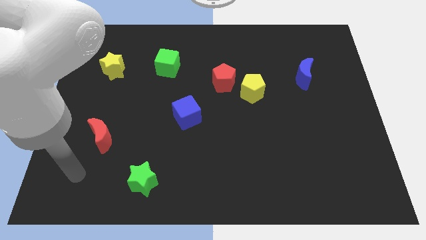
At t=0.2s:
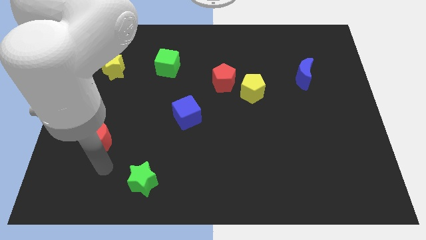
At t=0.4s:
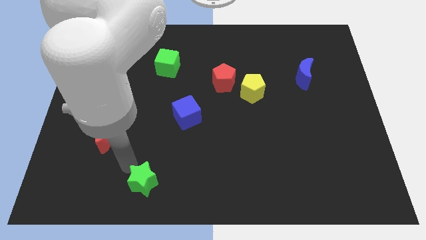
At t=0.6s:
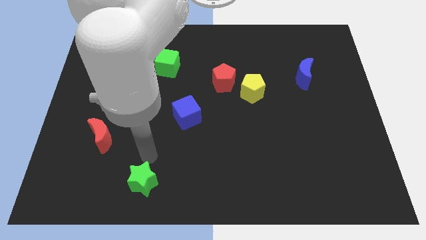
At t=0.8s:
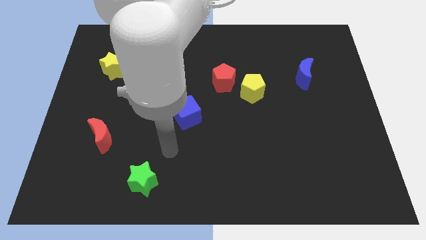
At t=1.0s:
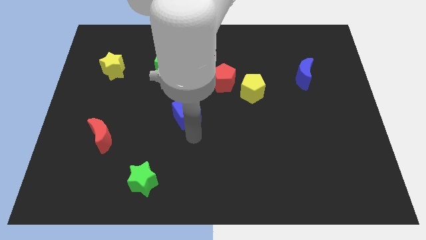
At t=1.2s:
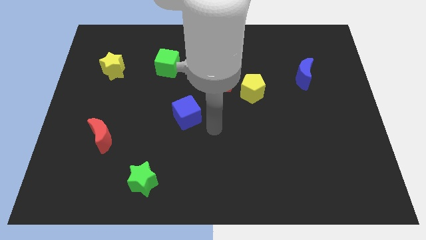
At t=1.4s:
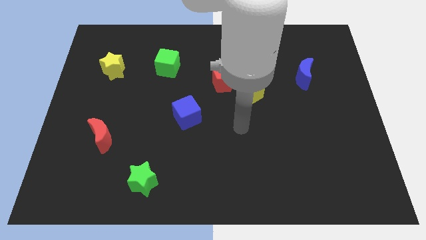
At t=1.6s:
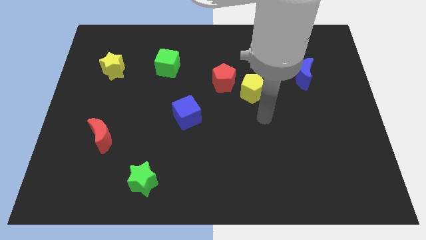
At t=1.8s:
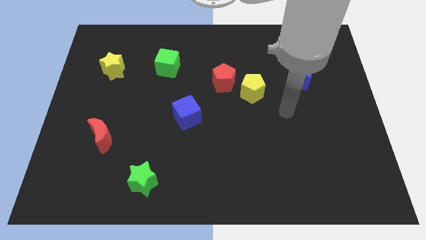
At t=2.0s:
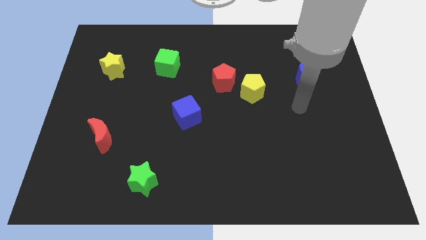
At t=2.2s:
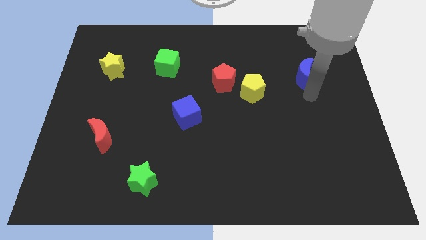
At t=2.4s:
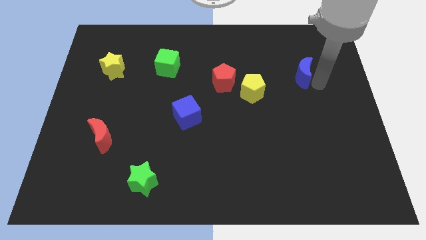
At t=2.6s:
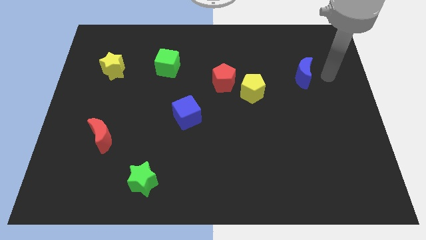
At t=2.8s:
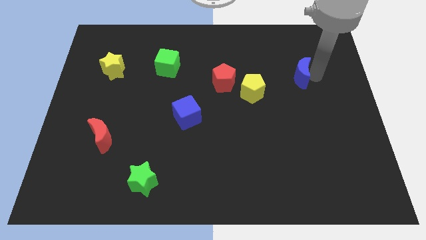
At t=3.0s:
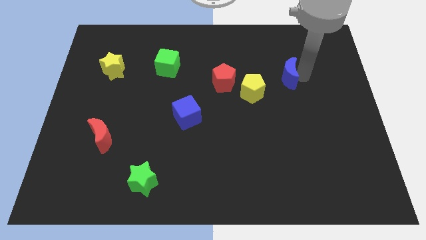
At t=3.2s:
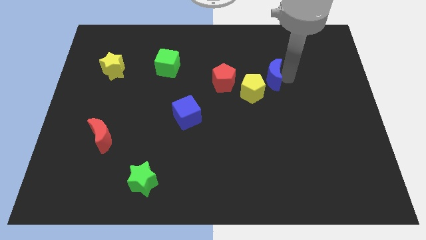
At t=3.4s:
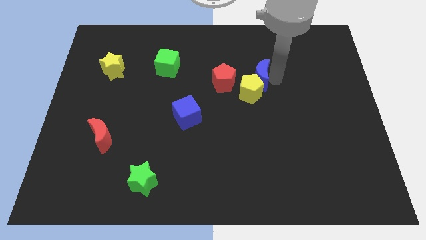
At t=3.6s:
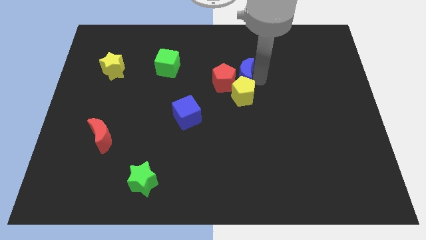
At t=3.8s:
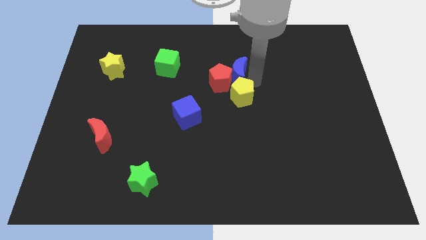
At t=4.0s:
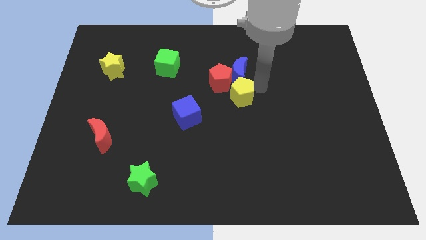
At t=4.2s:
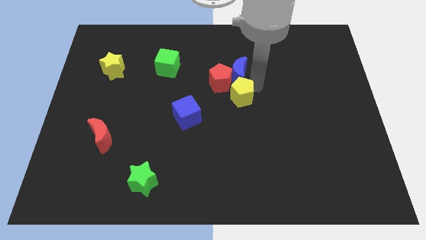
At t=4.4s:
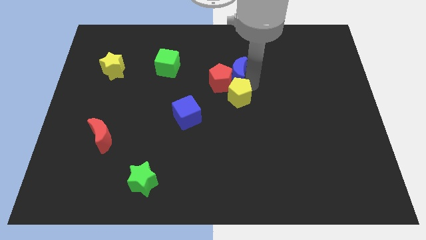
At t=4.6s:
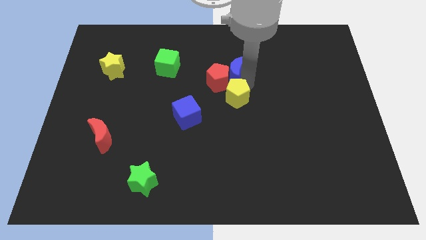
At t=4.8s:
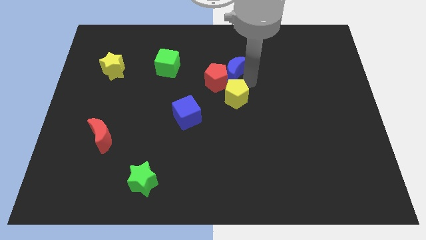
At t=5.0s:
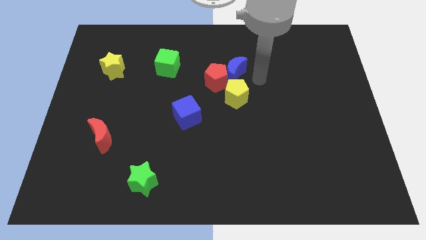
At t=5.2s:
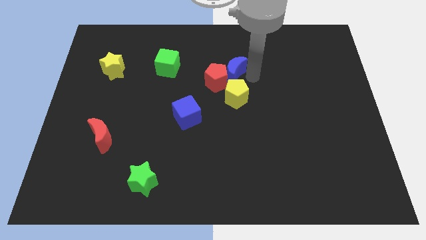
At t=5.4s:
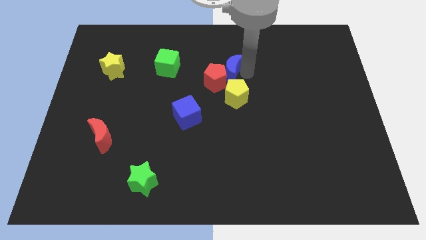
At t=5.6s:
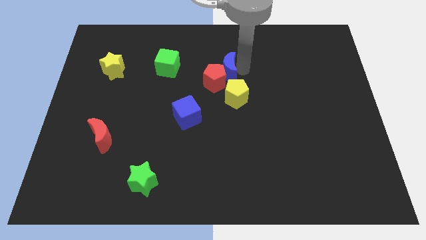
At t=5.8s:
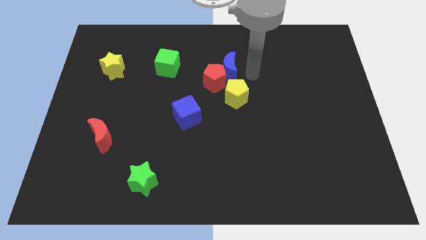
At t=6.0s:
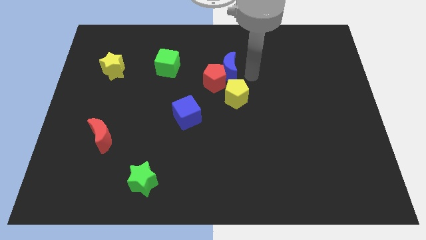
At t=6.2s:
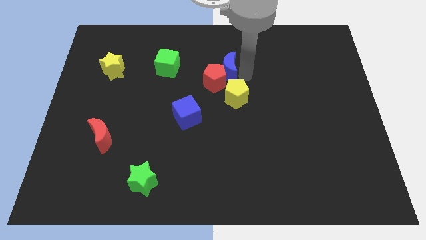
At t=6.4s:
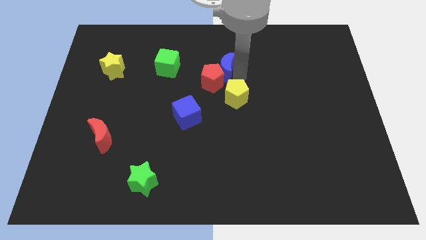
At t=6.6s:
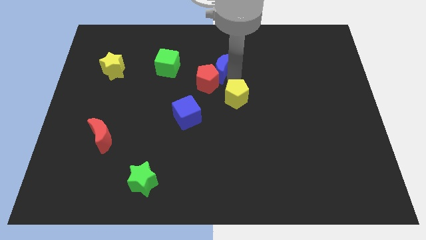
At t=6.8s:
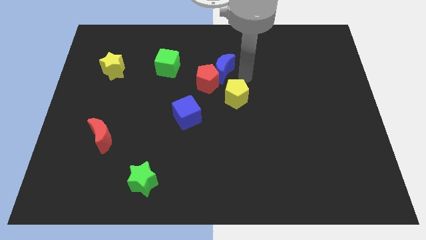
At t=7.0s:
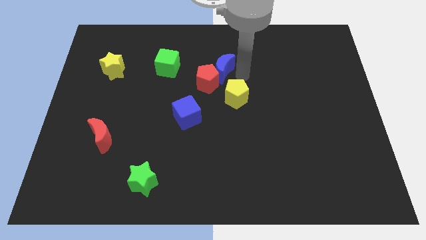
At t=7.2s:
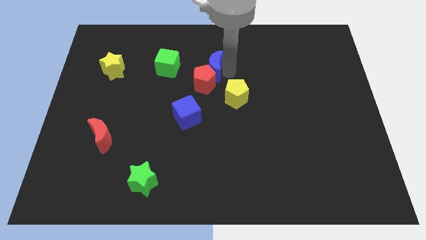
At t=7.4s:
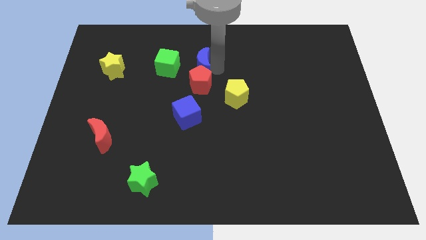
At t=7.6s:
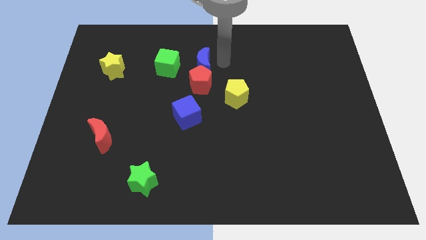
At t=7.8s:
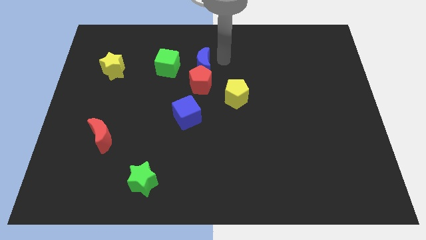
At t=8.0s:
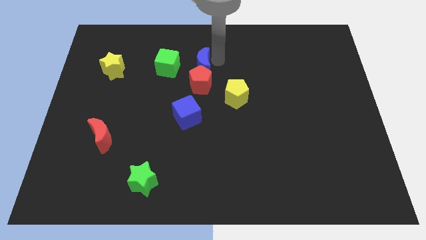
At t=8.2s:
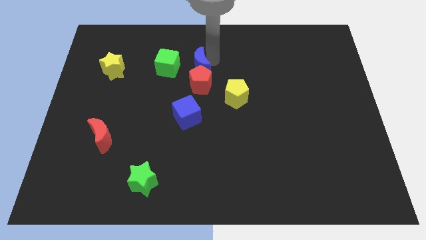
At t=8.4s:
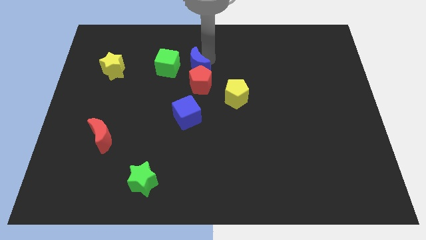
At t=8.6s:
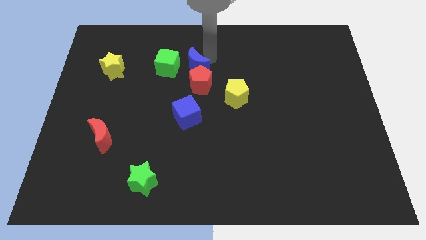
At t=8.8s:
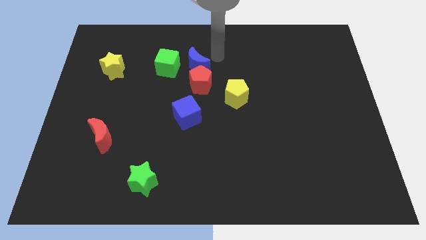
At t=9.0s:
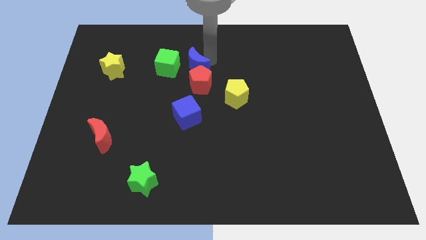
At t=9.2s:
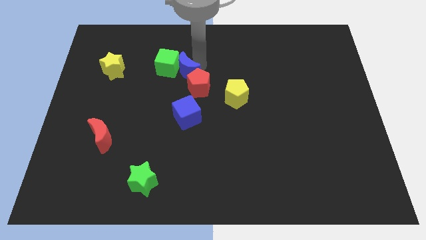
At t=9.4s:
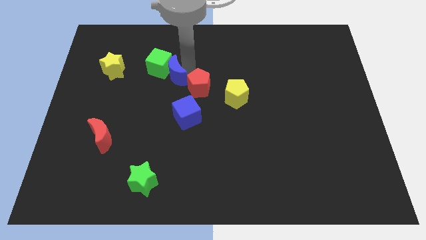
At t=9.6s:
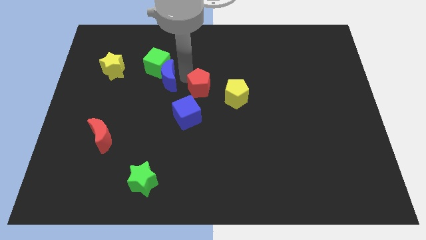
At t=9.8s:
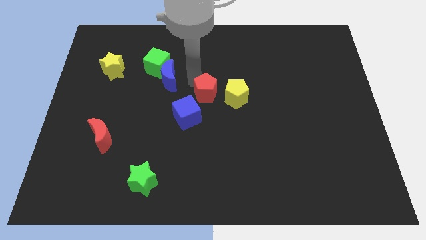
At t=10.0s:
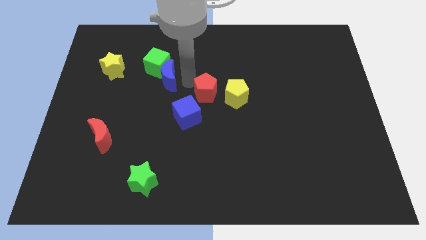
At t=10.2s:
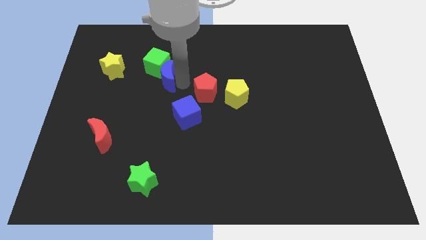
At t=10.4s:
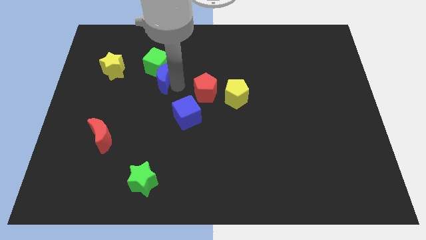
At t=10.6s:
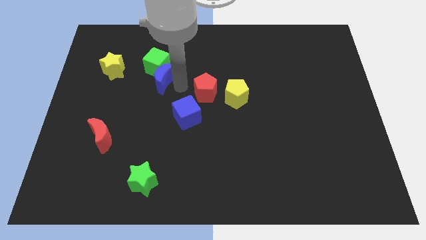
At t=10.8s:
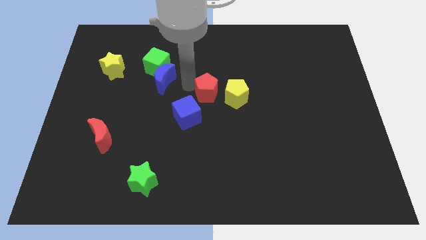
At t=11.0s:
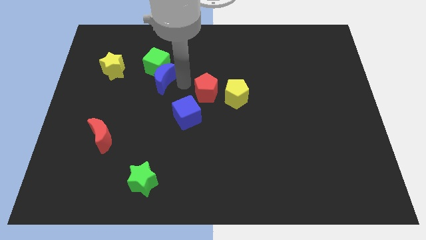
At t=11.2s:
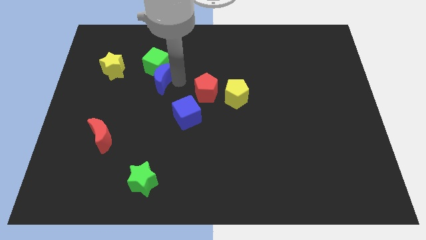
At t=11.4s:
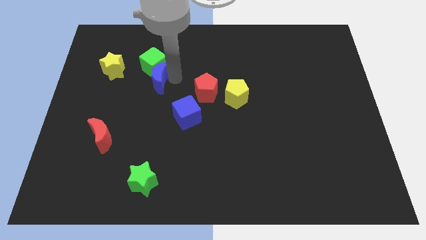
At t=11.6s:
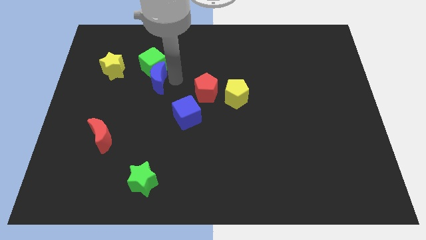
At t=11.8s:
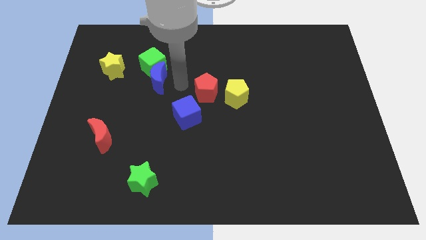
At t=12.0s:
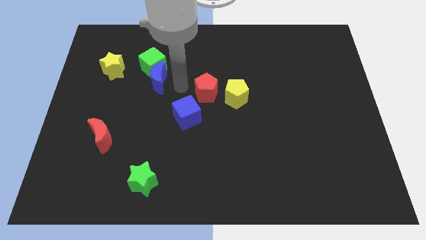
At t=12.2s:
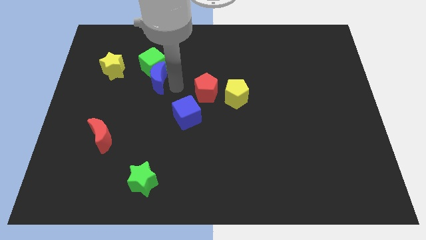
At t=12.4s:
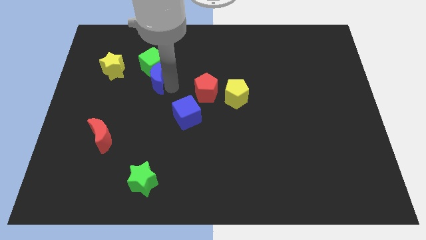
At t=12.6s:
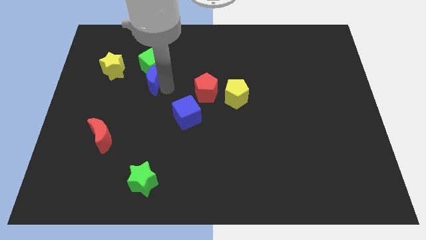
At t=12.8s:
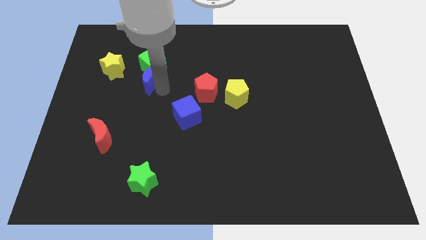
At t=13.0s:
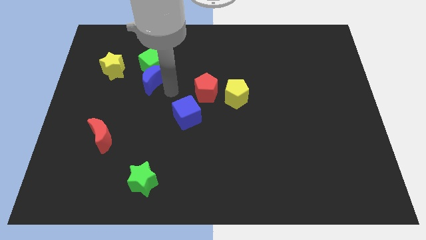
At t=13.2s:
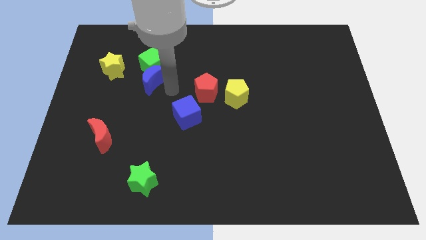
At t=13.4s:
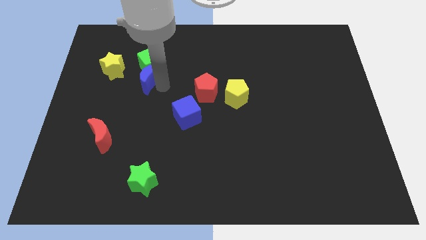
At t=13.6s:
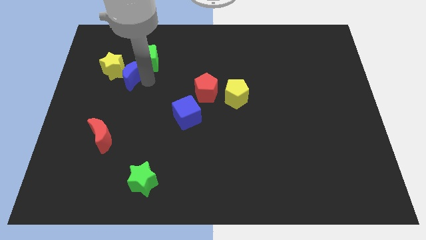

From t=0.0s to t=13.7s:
put the blue moon to the yellow star
